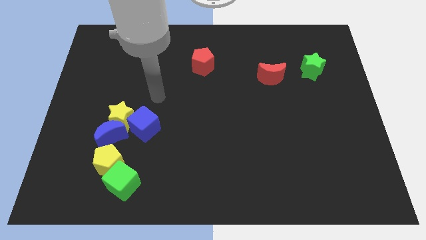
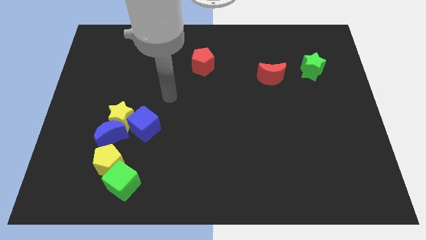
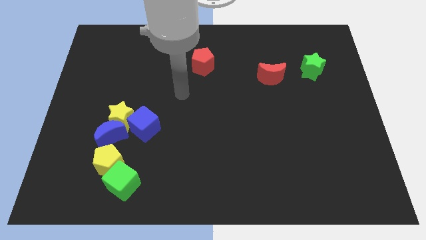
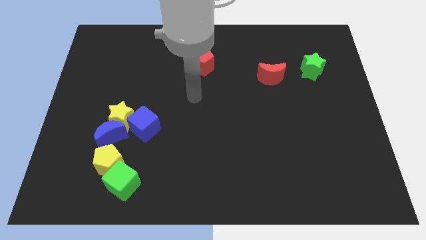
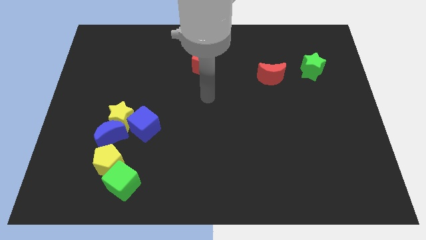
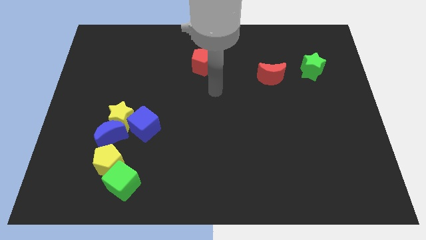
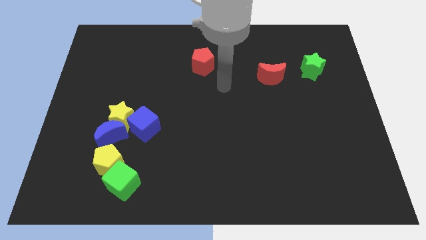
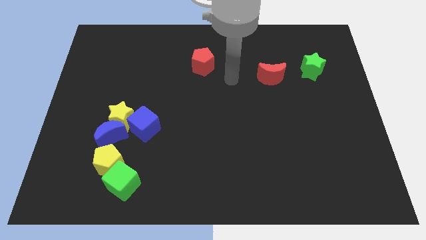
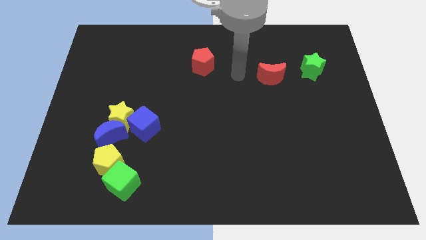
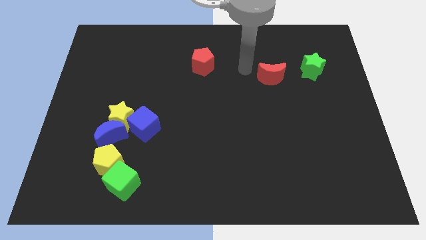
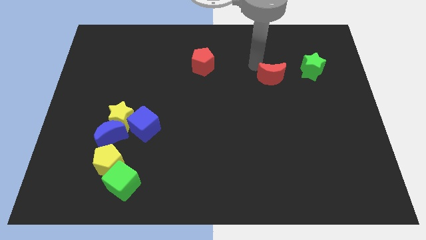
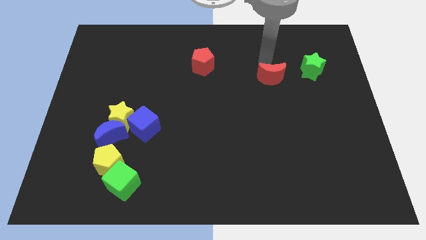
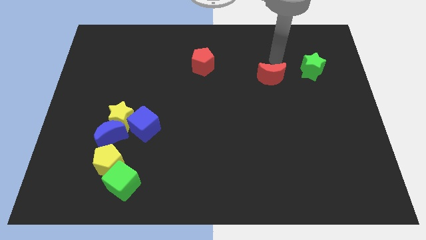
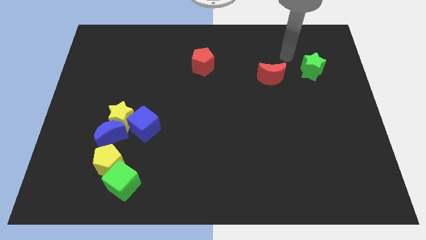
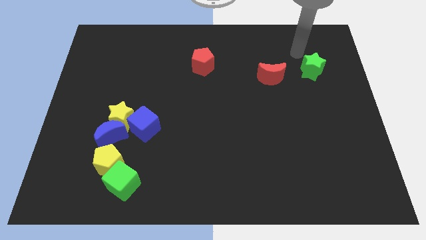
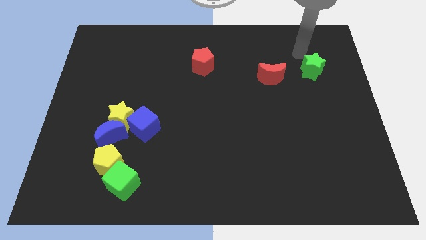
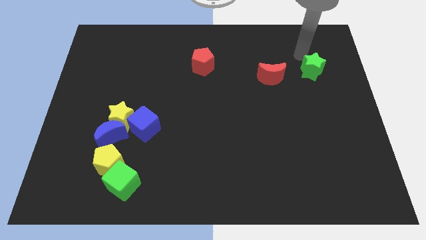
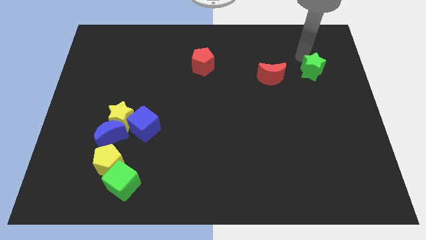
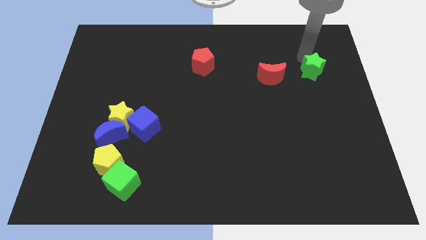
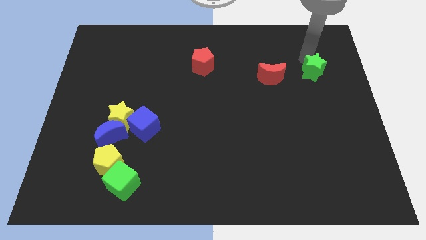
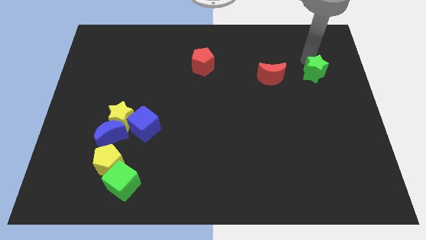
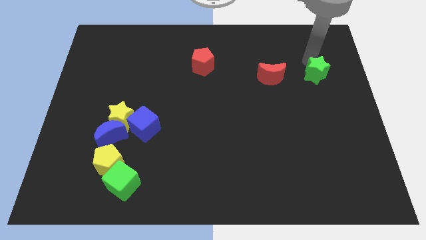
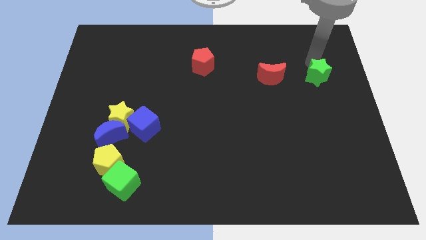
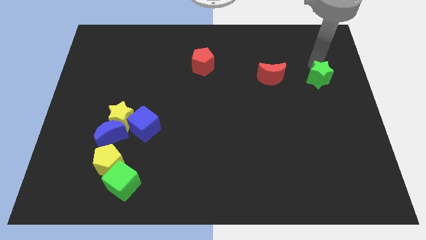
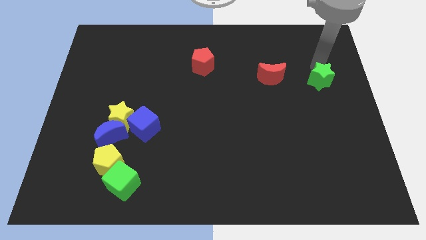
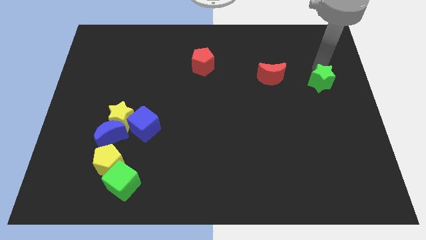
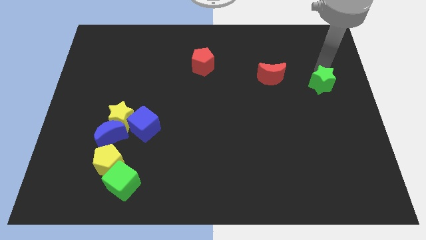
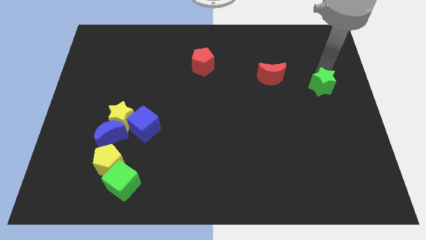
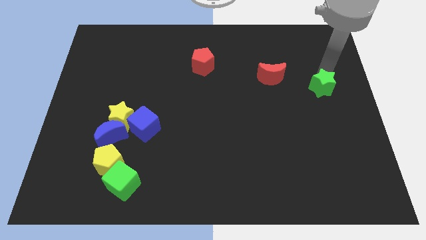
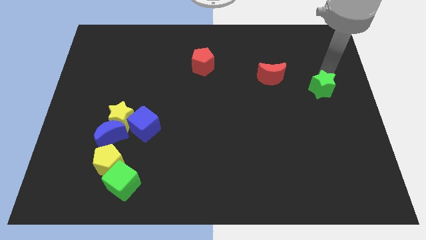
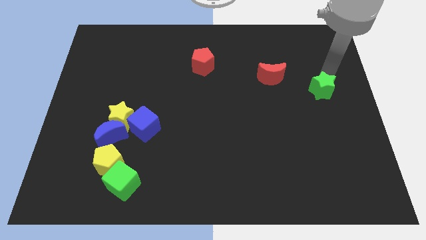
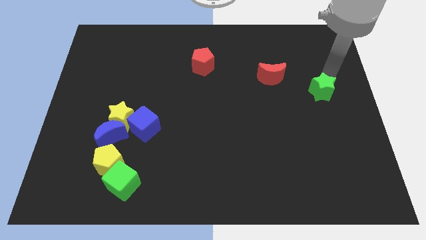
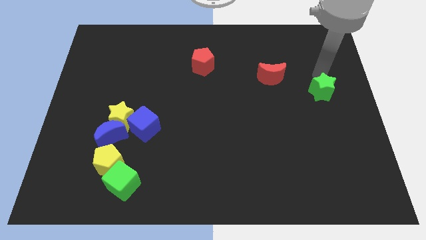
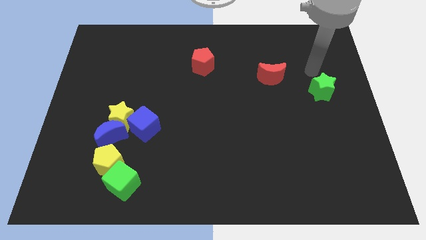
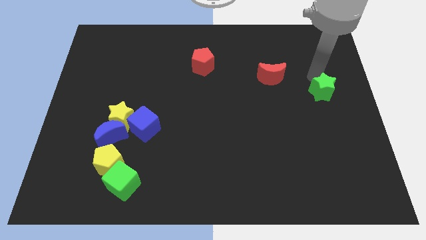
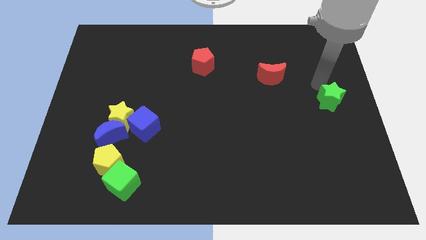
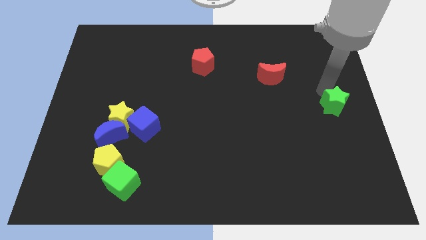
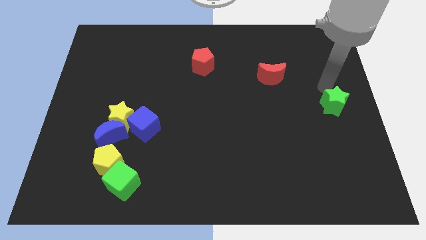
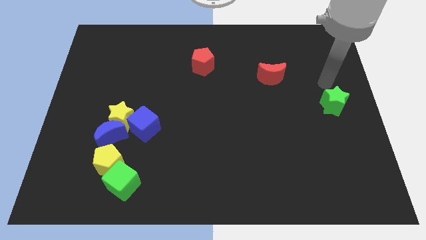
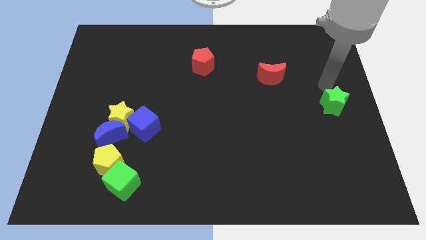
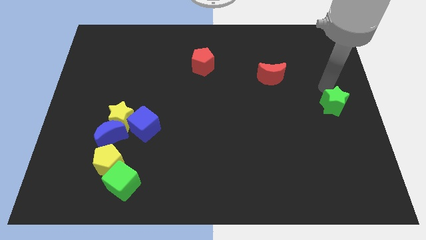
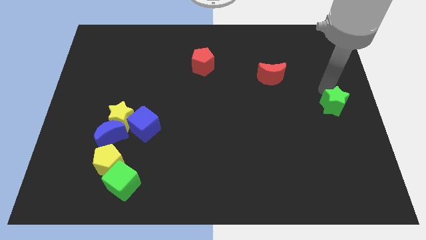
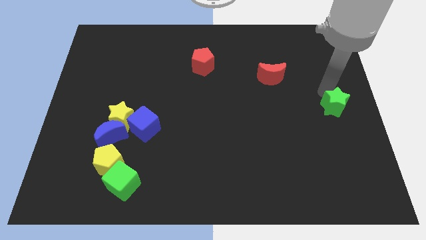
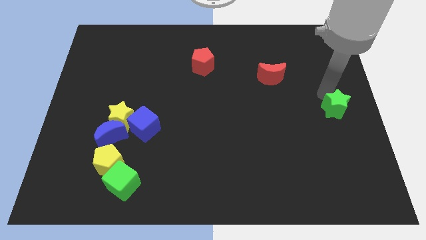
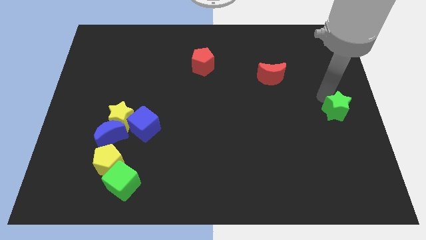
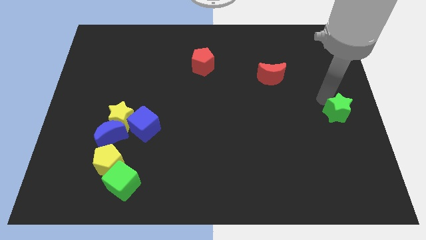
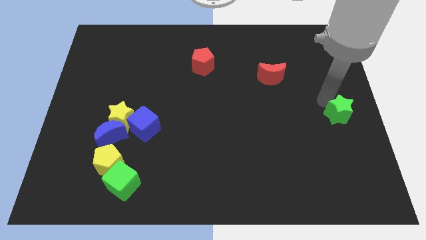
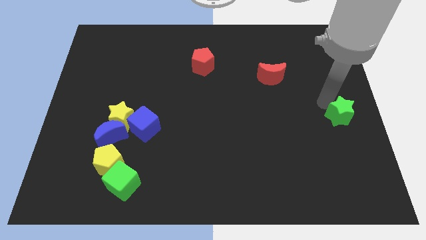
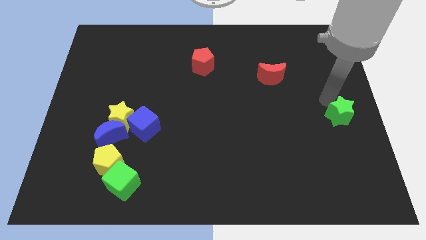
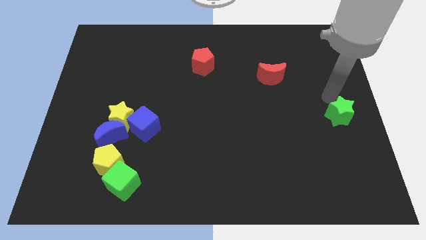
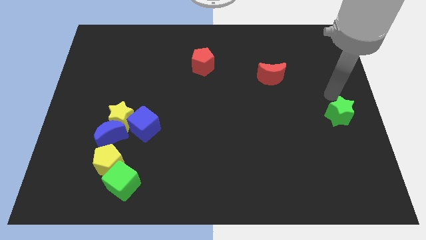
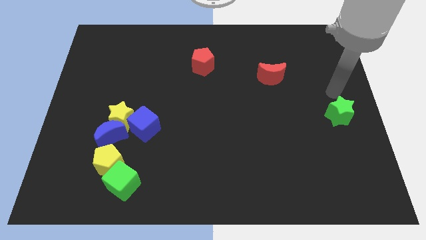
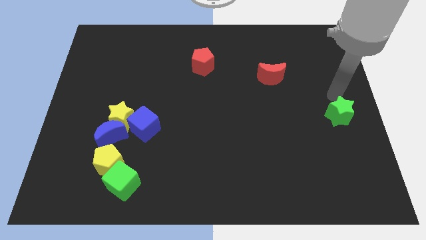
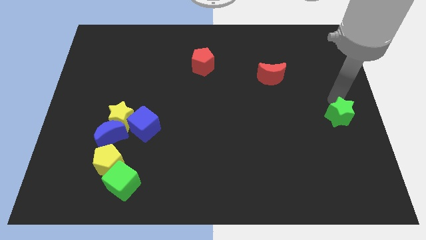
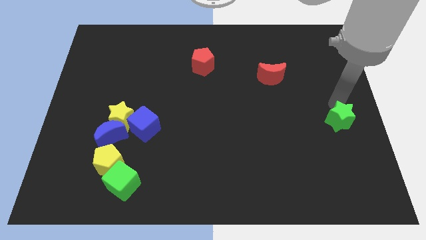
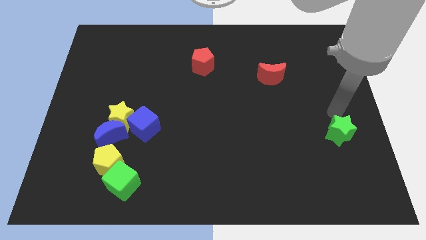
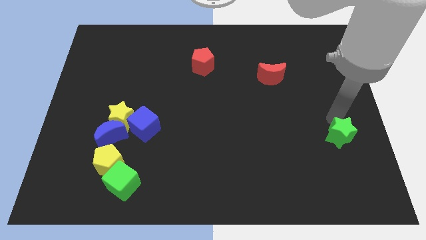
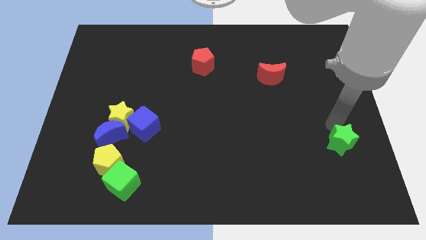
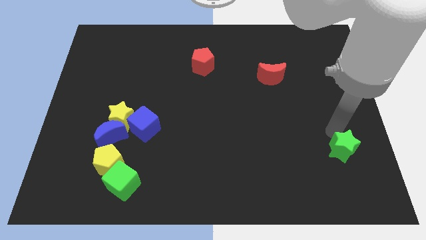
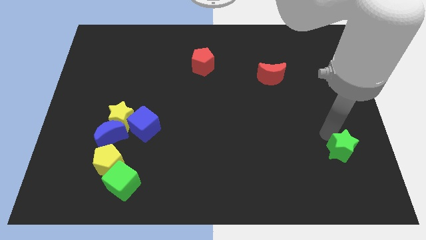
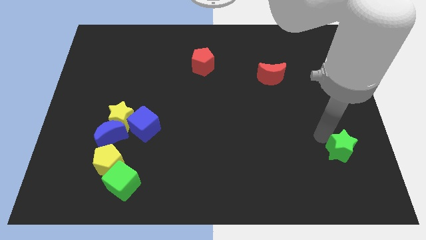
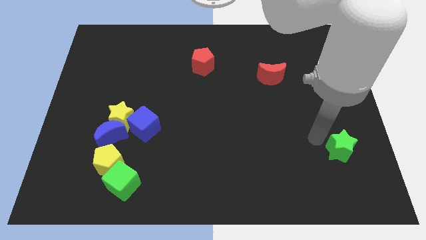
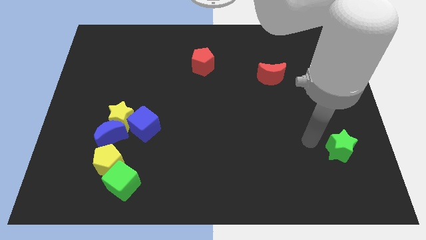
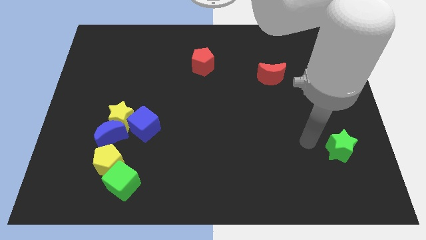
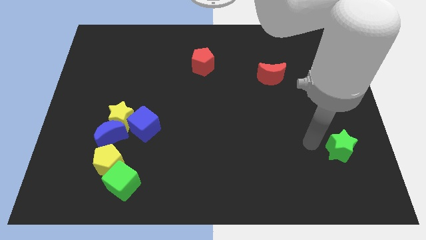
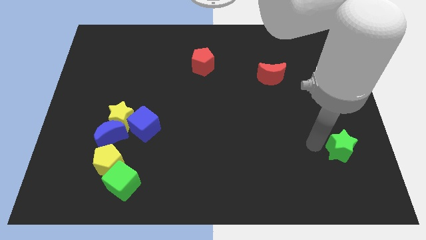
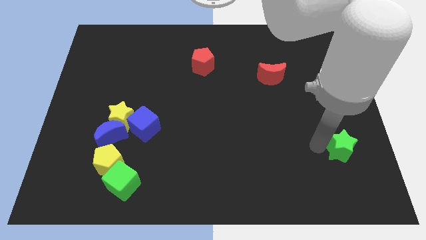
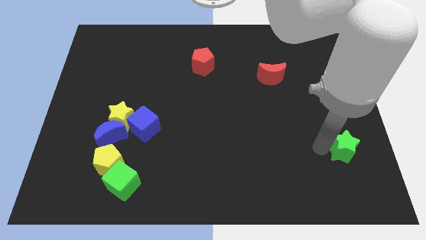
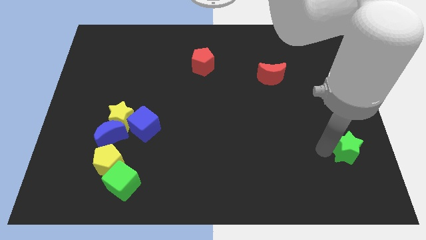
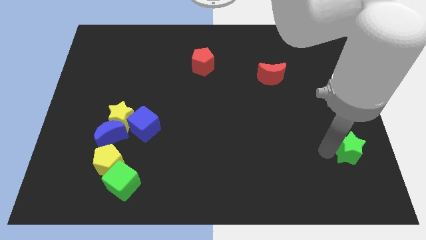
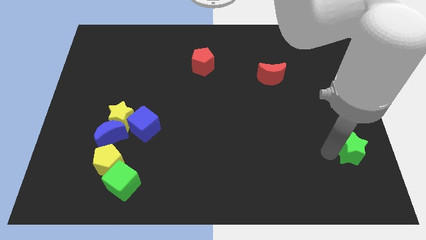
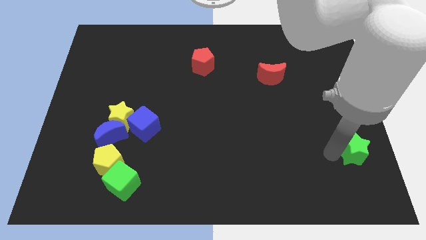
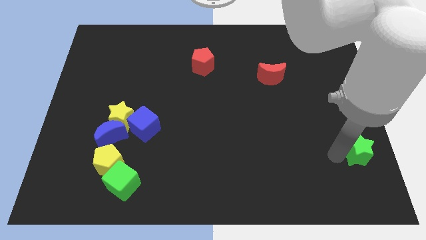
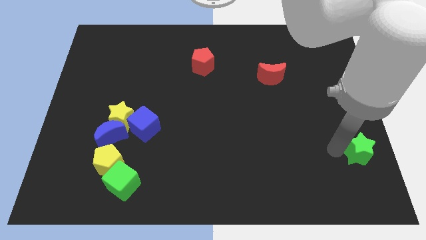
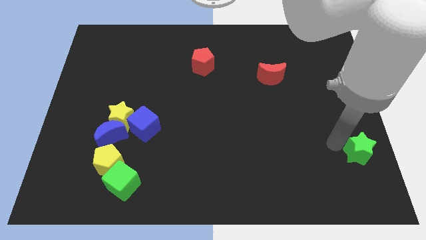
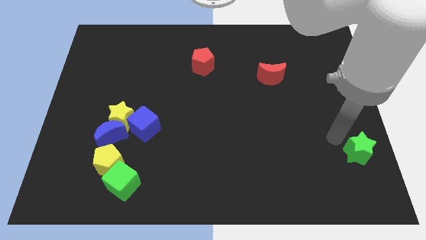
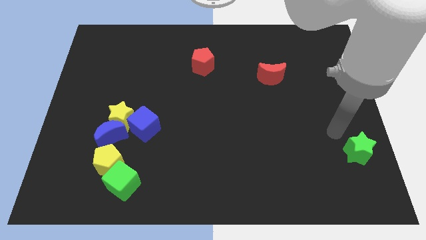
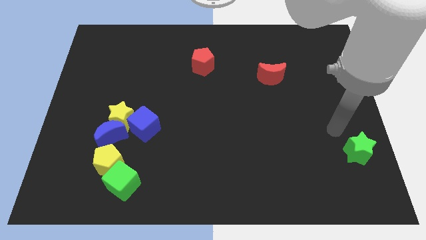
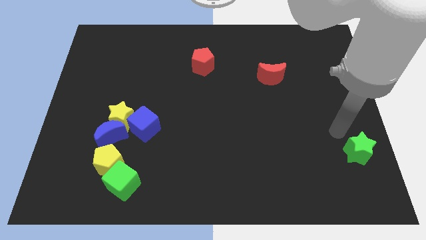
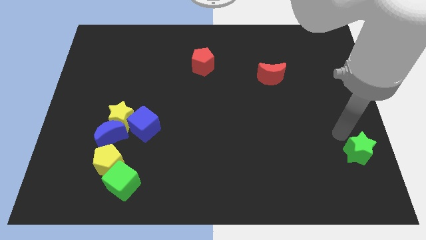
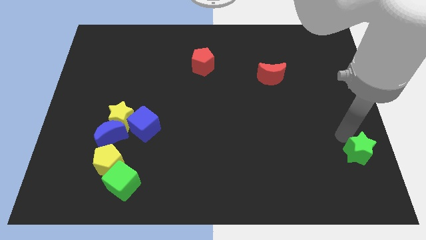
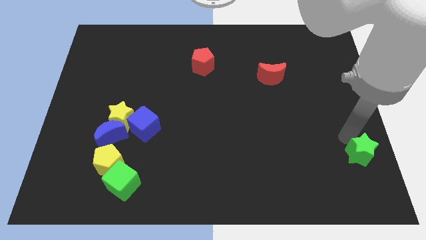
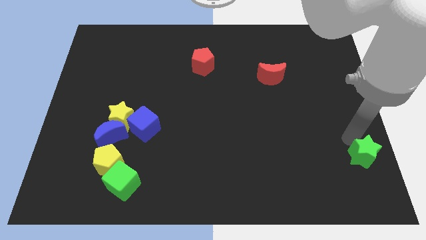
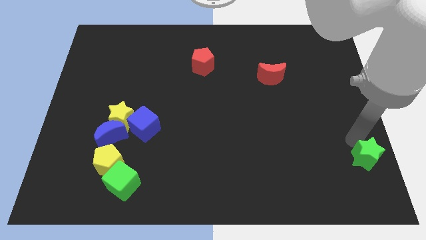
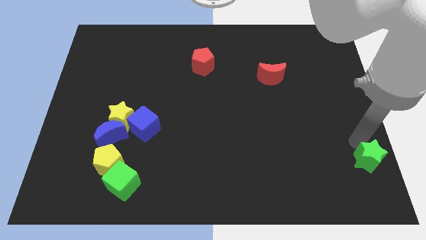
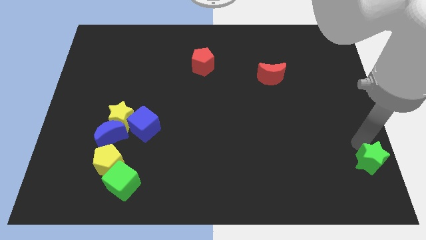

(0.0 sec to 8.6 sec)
push the green star to the bottom right
